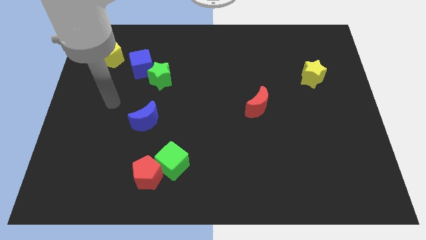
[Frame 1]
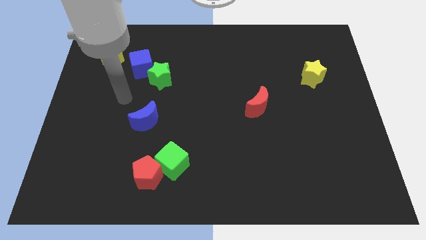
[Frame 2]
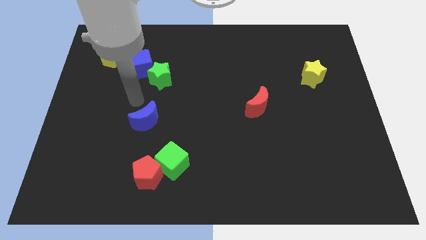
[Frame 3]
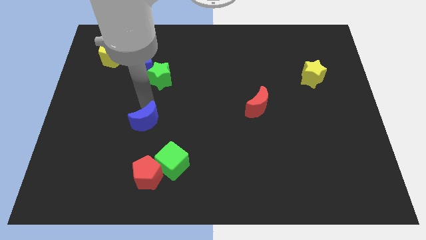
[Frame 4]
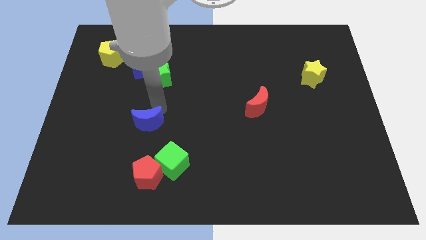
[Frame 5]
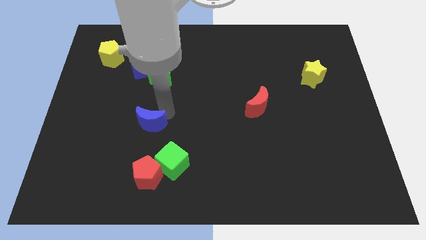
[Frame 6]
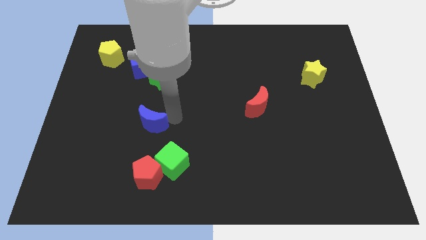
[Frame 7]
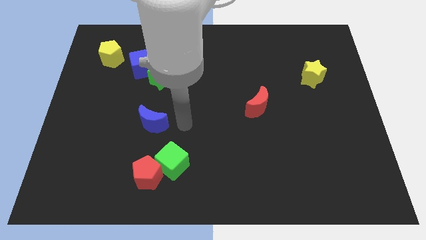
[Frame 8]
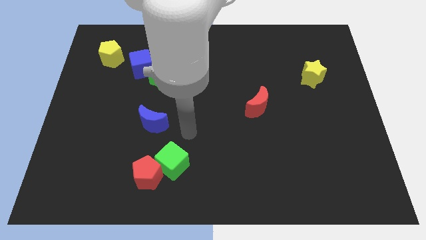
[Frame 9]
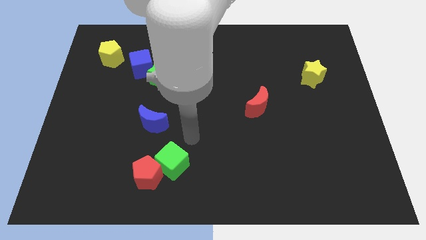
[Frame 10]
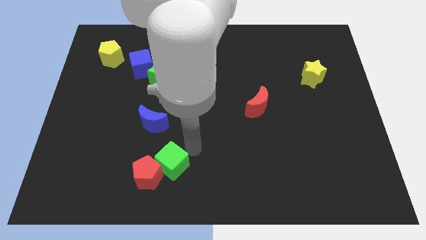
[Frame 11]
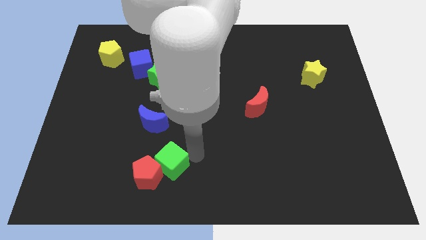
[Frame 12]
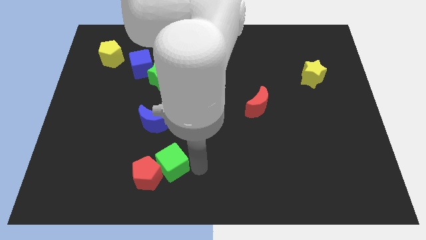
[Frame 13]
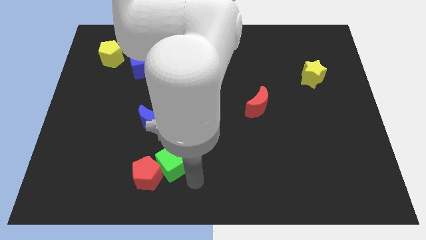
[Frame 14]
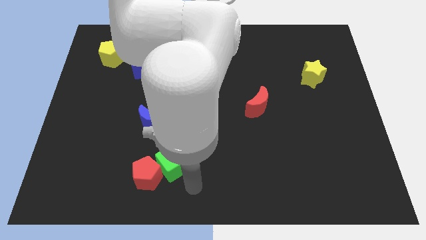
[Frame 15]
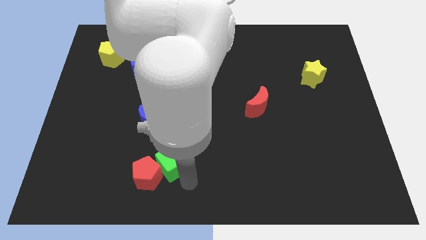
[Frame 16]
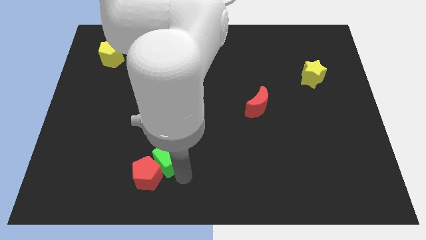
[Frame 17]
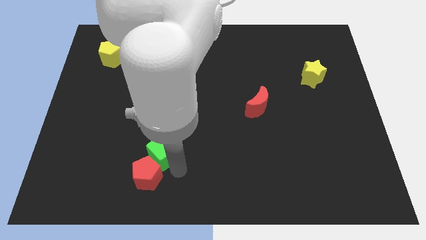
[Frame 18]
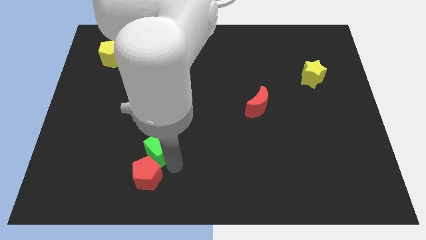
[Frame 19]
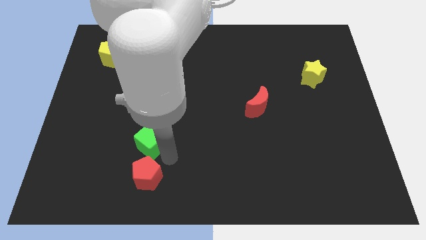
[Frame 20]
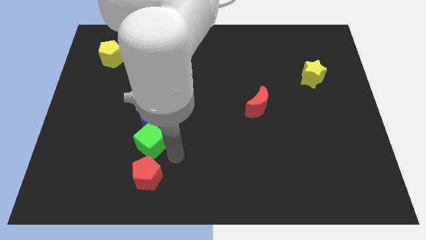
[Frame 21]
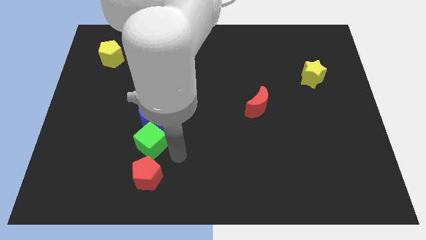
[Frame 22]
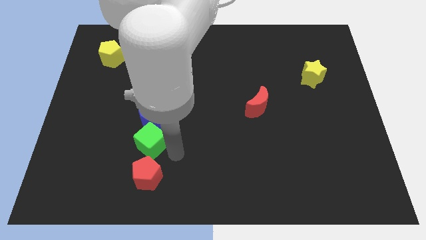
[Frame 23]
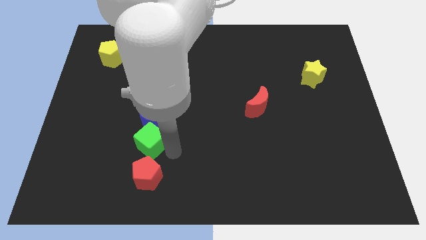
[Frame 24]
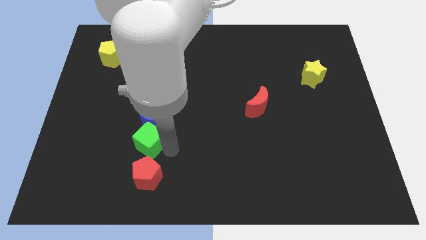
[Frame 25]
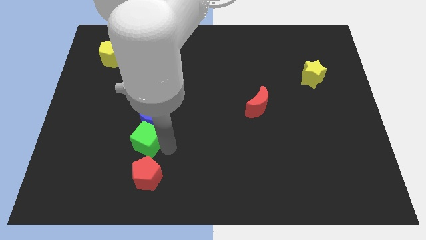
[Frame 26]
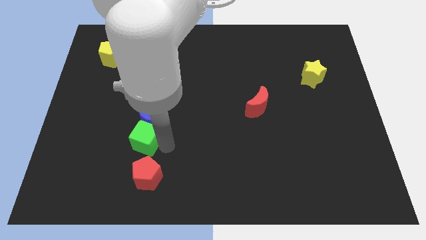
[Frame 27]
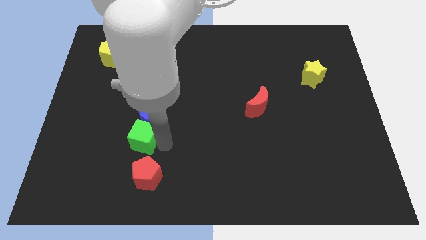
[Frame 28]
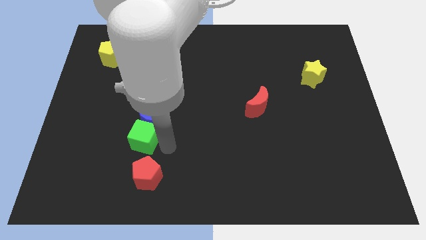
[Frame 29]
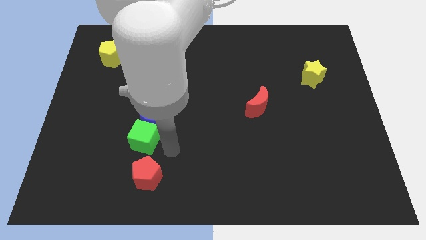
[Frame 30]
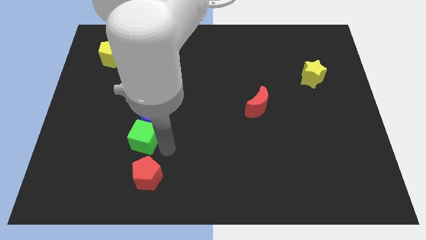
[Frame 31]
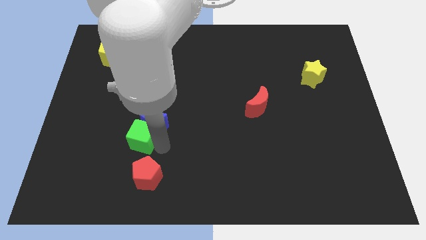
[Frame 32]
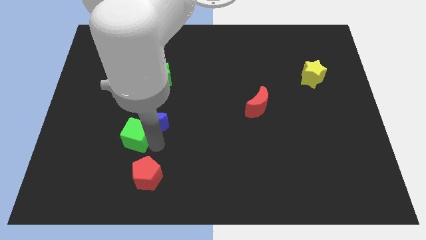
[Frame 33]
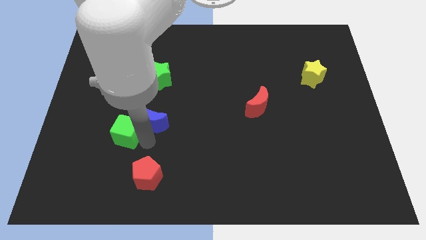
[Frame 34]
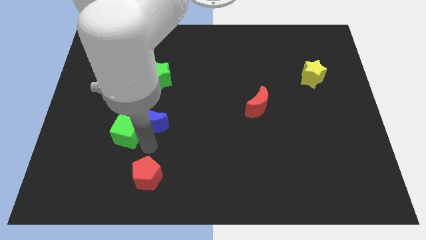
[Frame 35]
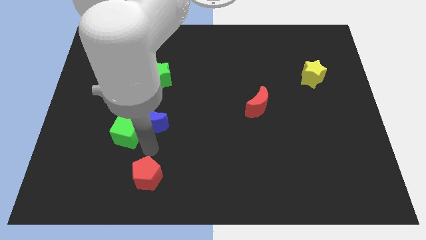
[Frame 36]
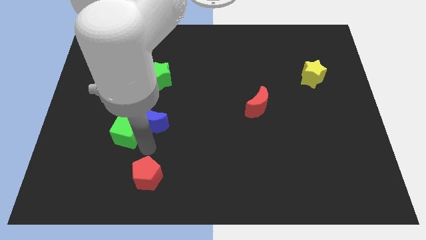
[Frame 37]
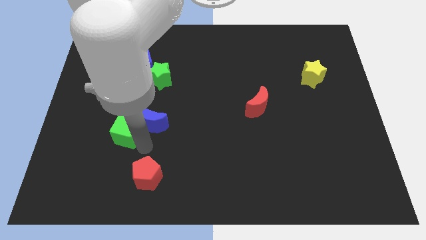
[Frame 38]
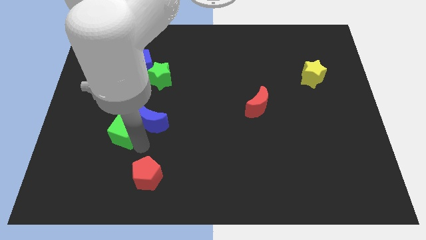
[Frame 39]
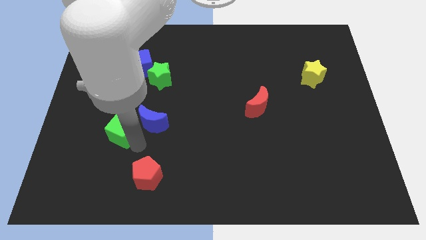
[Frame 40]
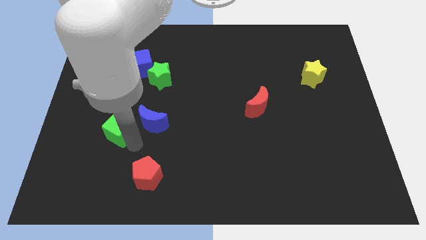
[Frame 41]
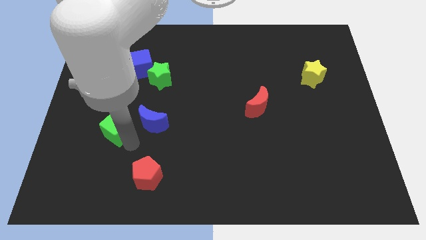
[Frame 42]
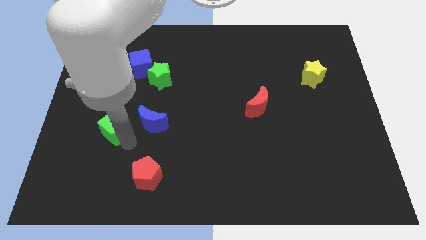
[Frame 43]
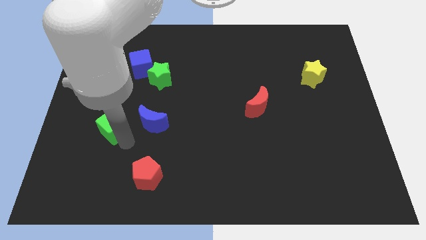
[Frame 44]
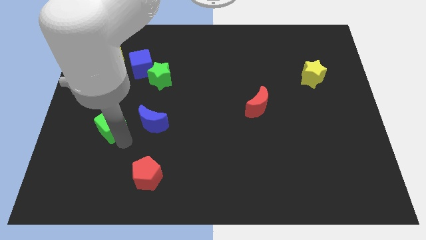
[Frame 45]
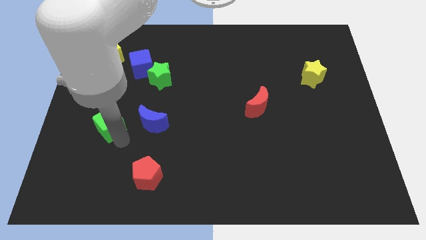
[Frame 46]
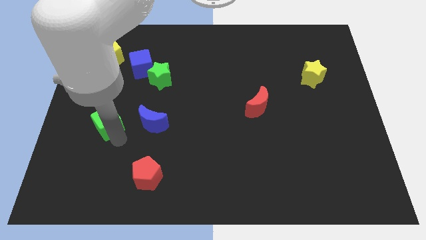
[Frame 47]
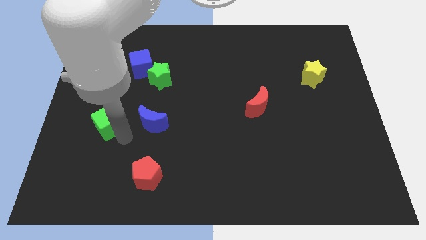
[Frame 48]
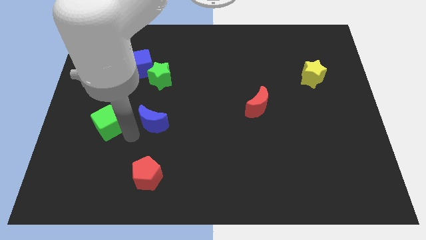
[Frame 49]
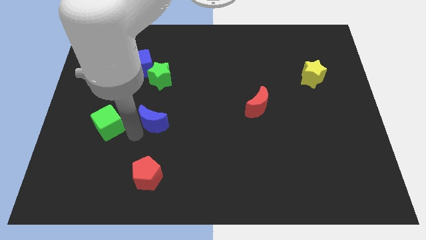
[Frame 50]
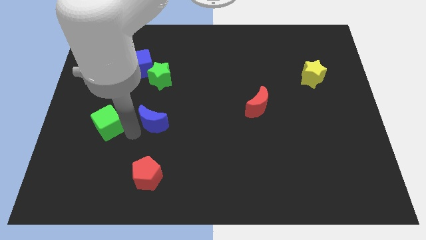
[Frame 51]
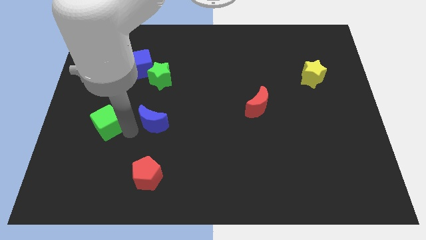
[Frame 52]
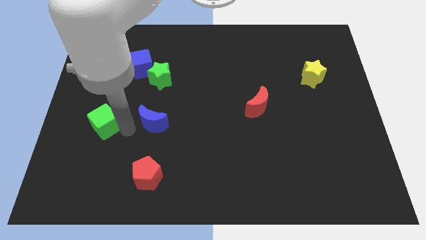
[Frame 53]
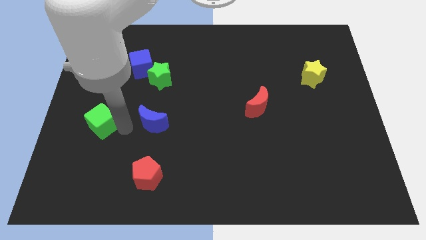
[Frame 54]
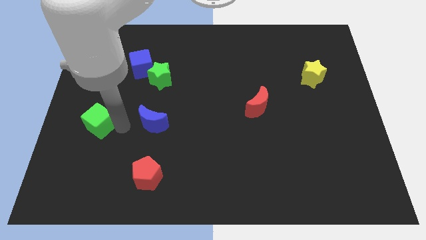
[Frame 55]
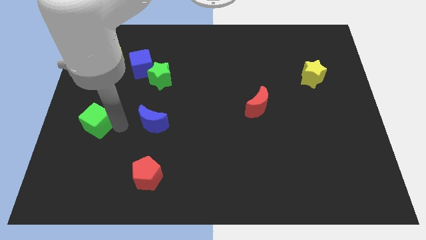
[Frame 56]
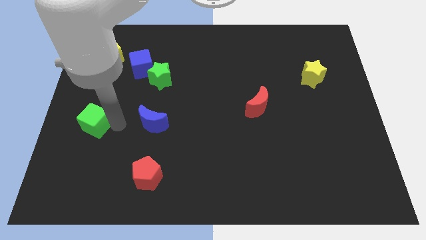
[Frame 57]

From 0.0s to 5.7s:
move the green cube to the left side of the board

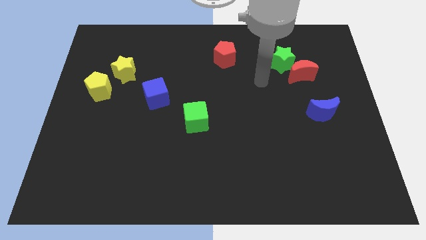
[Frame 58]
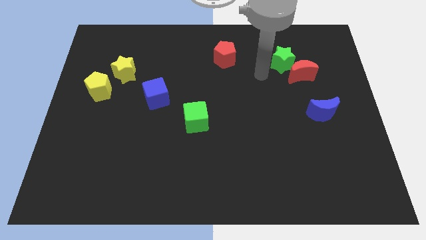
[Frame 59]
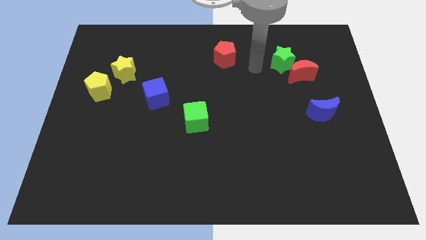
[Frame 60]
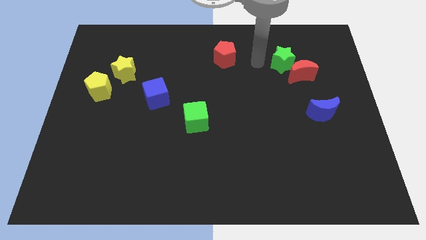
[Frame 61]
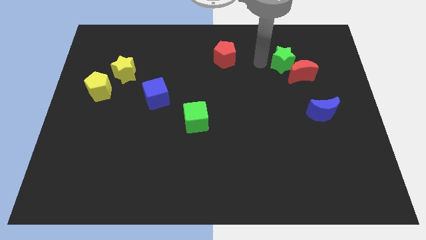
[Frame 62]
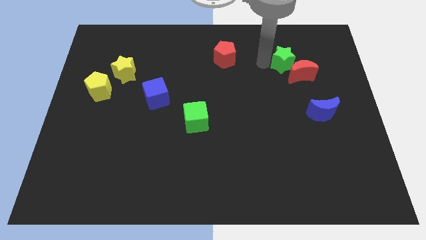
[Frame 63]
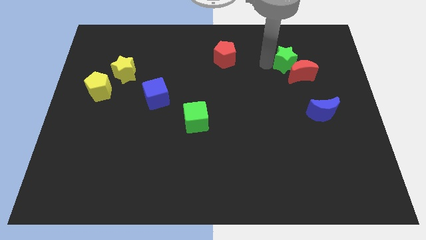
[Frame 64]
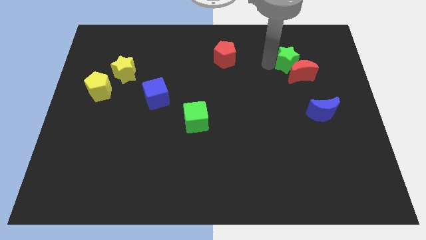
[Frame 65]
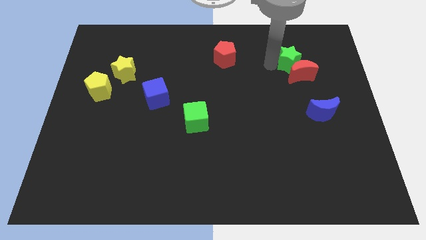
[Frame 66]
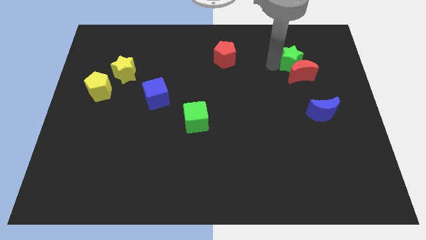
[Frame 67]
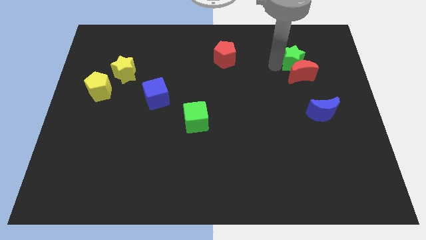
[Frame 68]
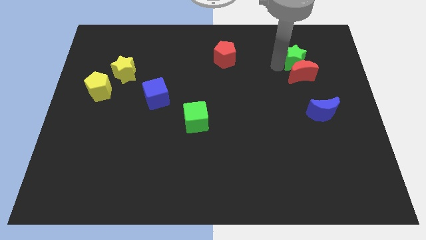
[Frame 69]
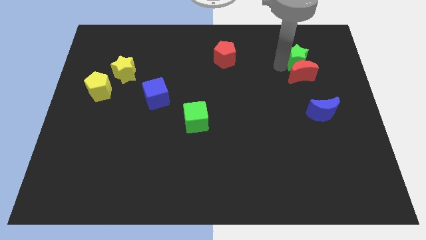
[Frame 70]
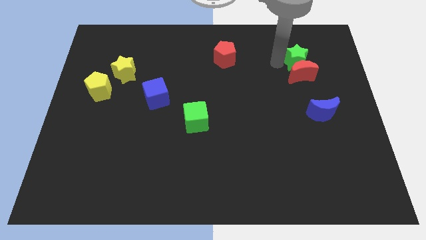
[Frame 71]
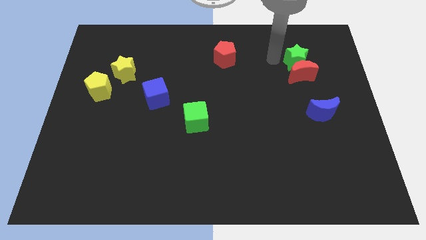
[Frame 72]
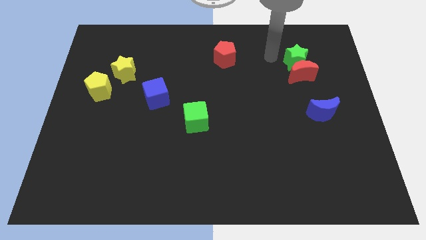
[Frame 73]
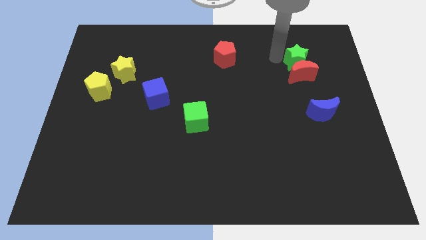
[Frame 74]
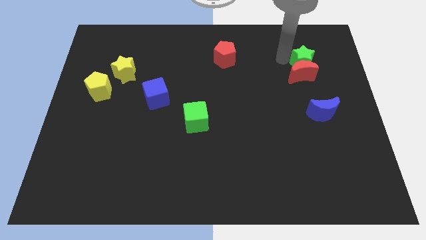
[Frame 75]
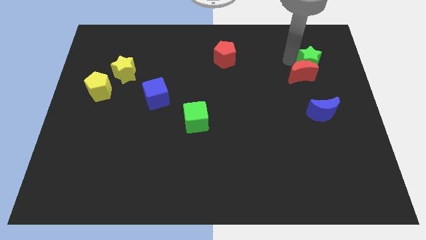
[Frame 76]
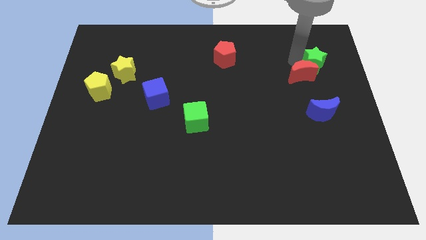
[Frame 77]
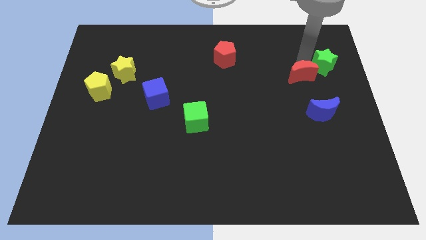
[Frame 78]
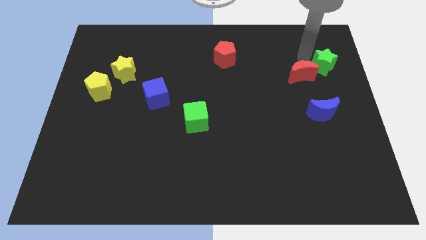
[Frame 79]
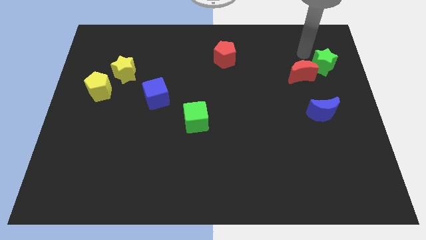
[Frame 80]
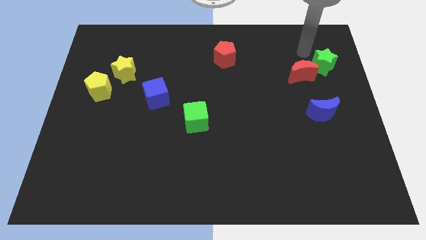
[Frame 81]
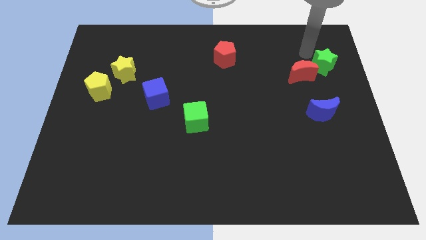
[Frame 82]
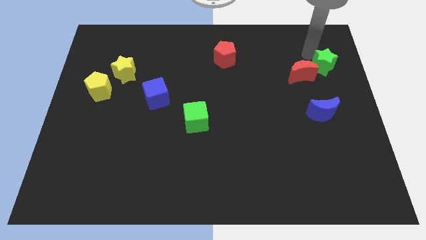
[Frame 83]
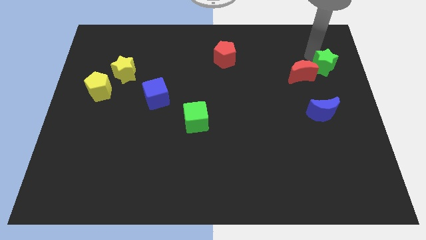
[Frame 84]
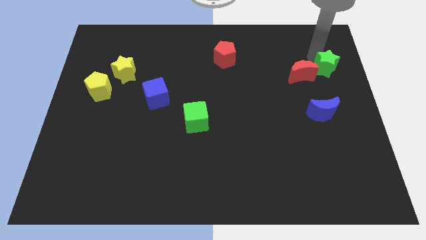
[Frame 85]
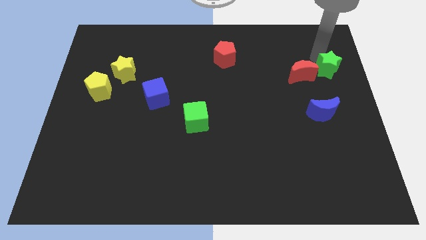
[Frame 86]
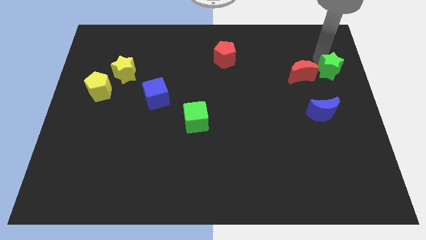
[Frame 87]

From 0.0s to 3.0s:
slide the green star to the center right
